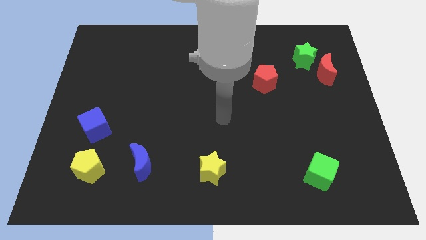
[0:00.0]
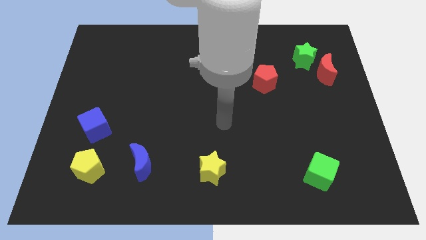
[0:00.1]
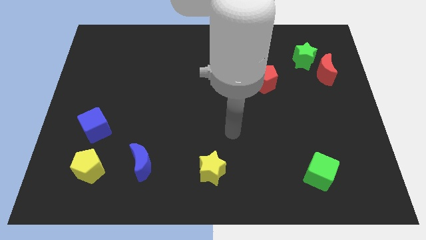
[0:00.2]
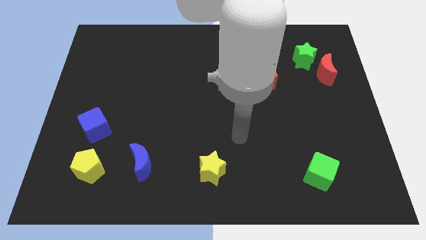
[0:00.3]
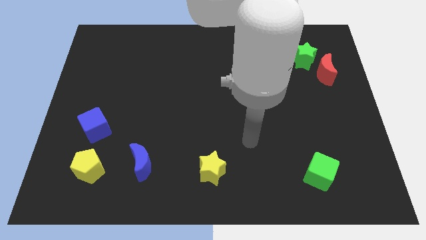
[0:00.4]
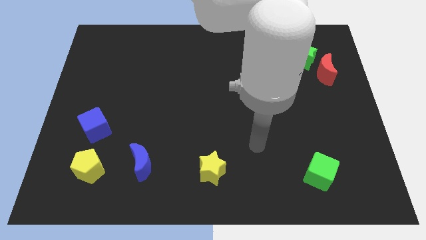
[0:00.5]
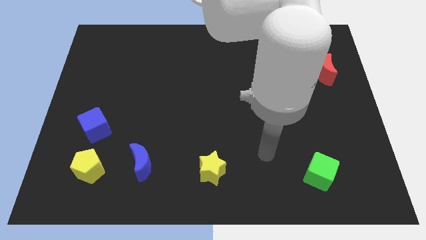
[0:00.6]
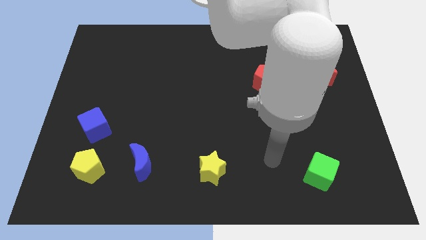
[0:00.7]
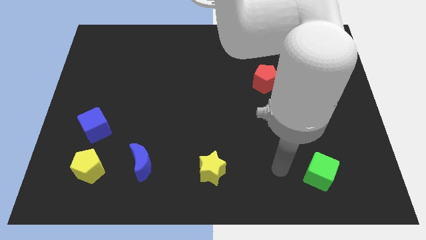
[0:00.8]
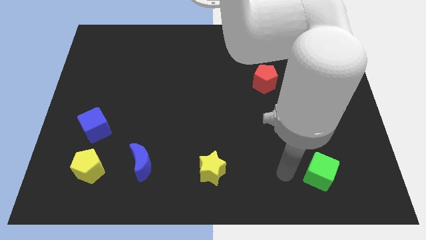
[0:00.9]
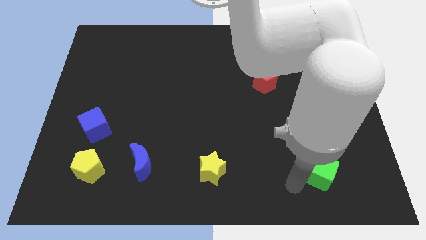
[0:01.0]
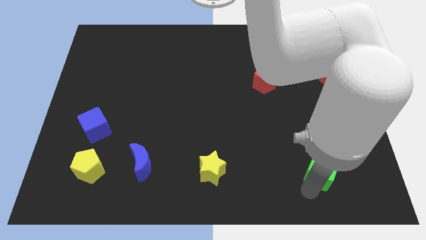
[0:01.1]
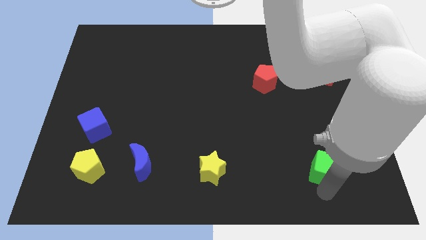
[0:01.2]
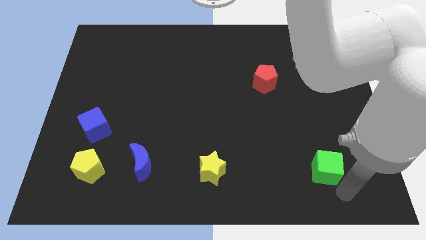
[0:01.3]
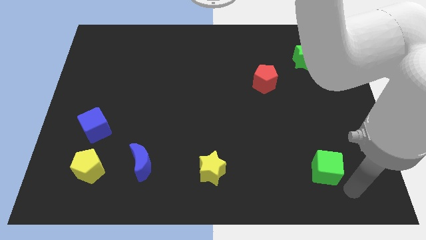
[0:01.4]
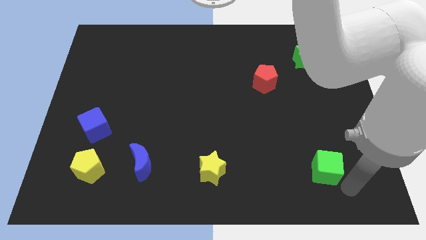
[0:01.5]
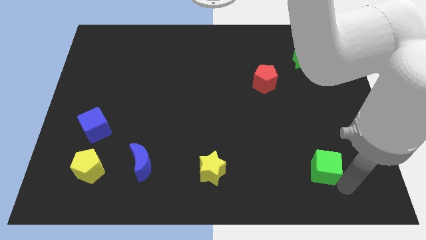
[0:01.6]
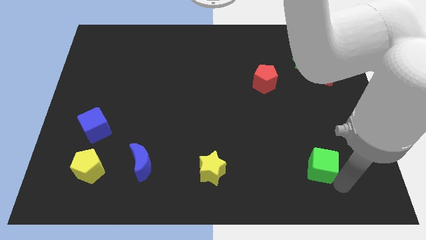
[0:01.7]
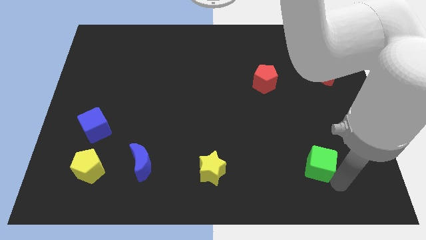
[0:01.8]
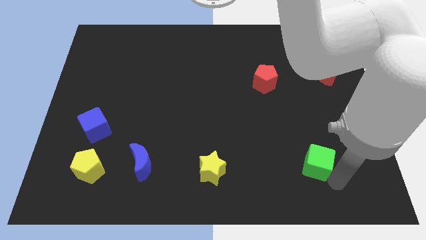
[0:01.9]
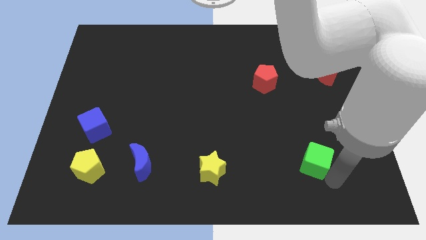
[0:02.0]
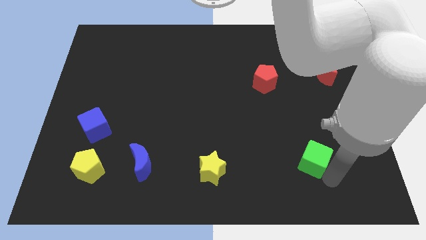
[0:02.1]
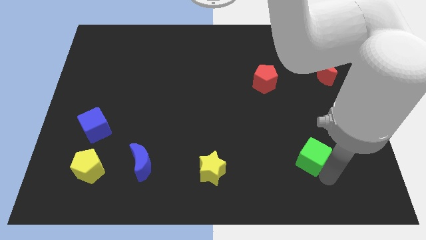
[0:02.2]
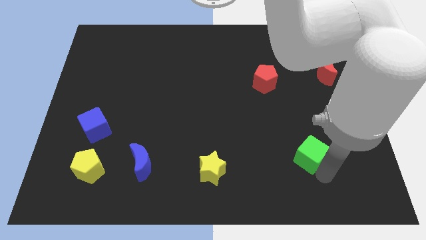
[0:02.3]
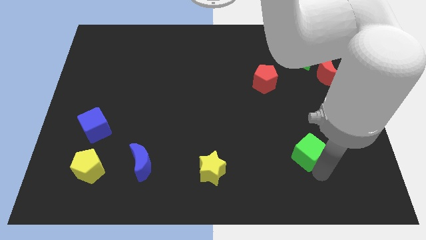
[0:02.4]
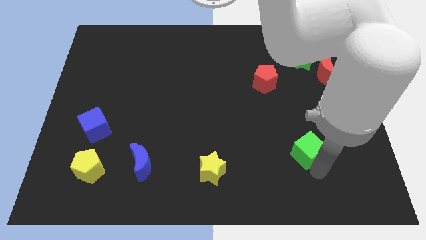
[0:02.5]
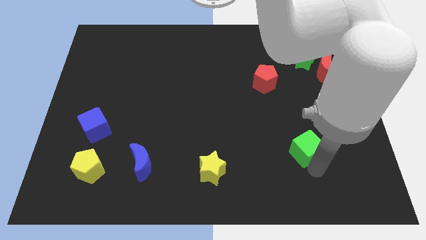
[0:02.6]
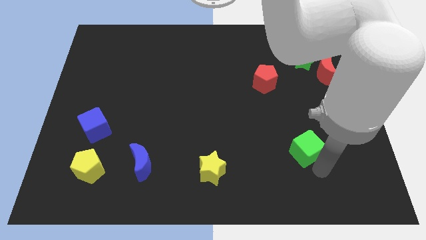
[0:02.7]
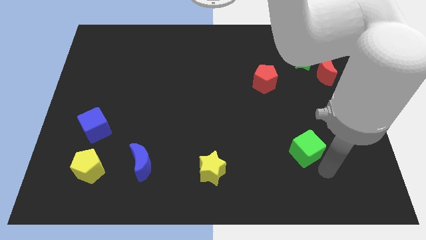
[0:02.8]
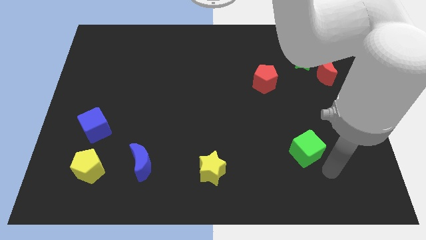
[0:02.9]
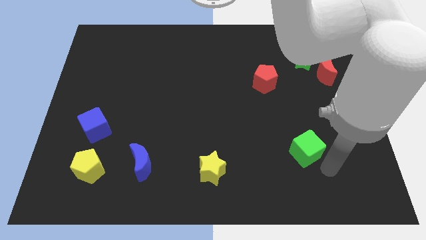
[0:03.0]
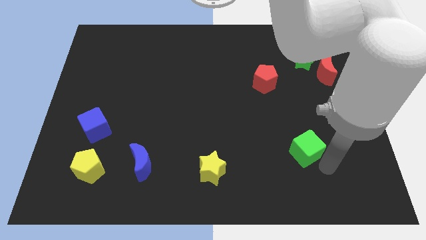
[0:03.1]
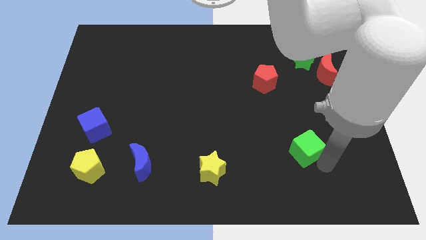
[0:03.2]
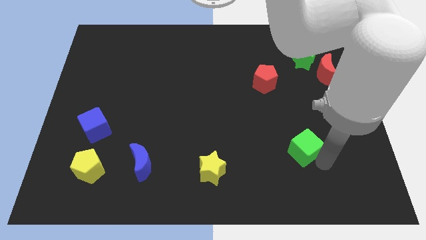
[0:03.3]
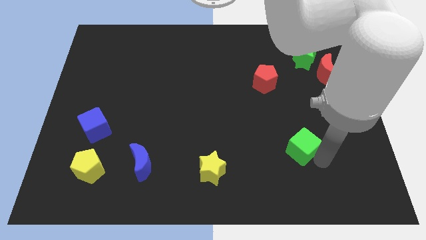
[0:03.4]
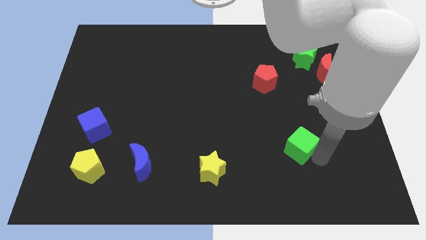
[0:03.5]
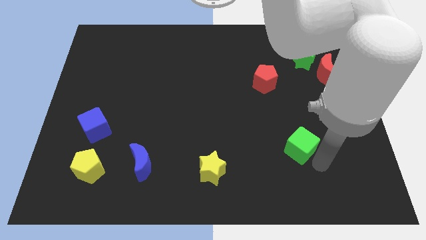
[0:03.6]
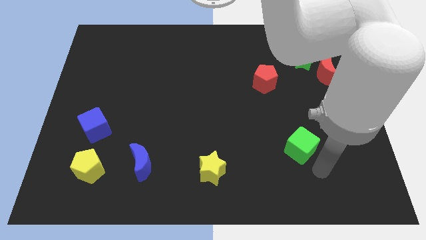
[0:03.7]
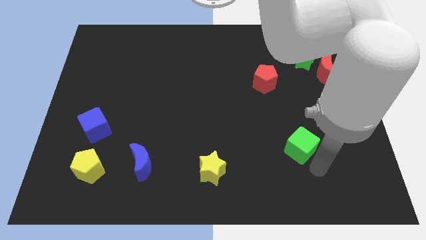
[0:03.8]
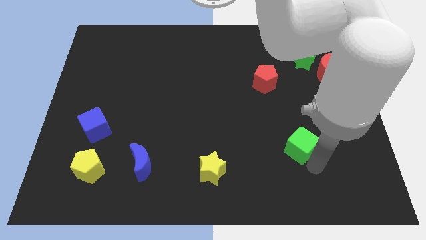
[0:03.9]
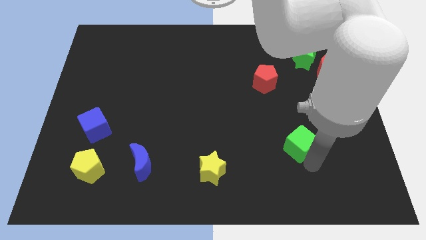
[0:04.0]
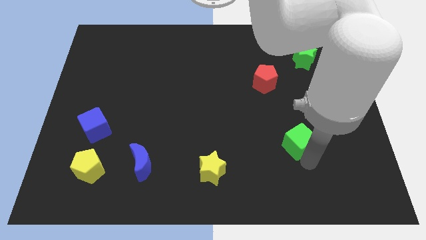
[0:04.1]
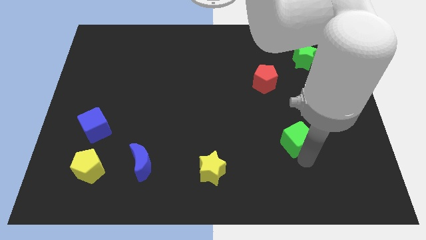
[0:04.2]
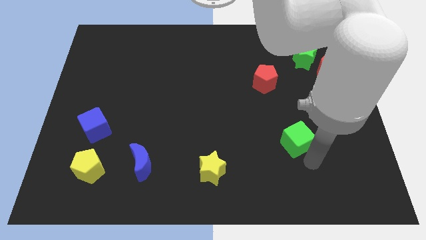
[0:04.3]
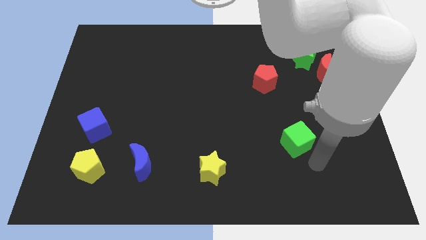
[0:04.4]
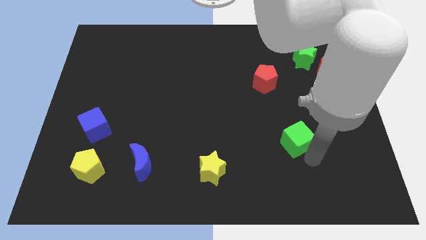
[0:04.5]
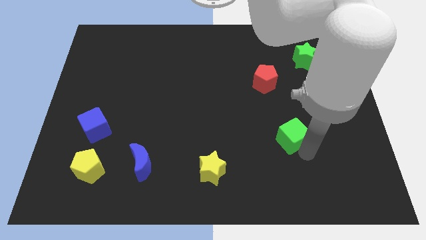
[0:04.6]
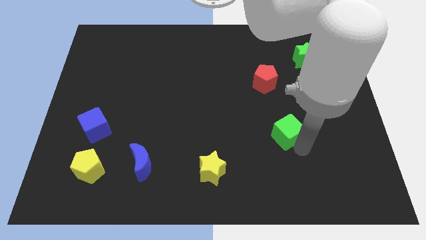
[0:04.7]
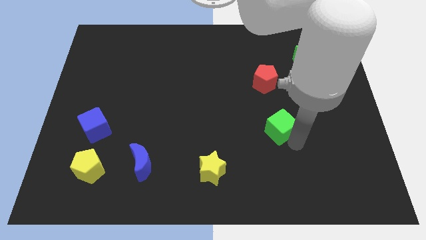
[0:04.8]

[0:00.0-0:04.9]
push the green cube below the red pentagon

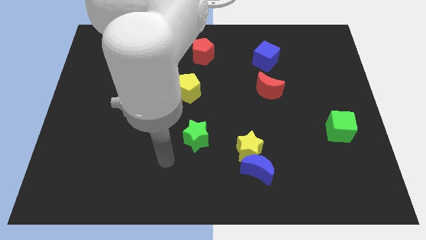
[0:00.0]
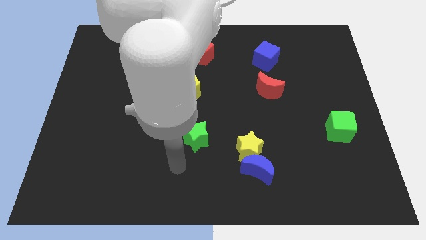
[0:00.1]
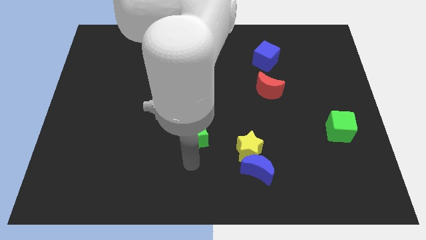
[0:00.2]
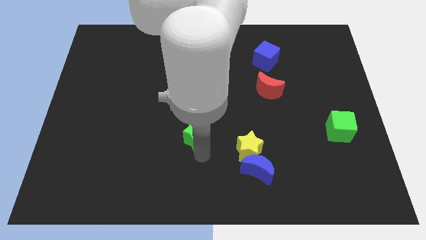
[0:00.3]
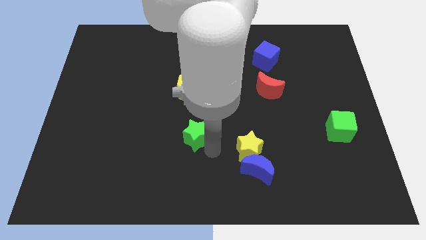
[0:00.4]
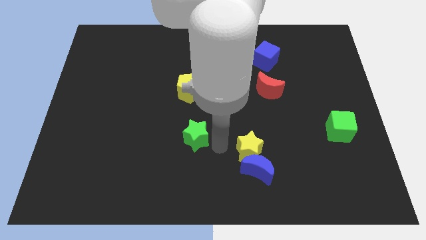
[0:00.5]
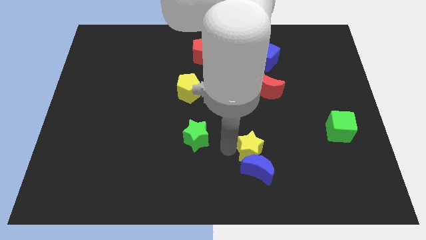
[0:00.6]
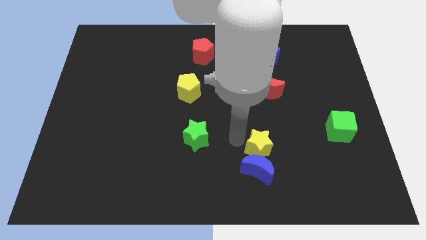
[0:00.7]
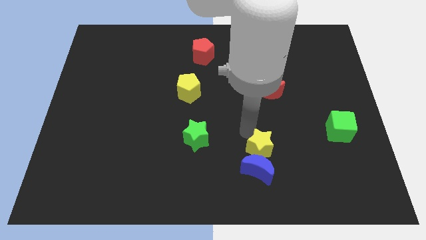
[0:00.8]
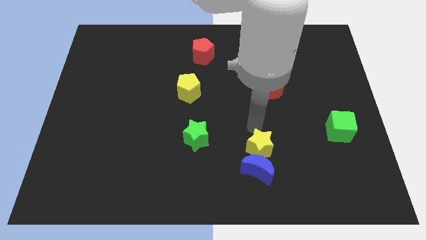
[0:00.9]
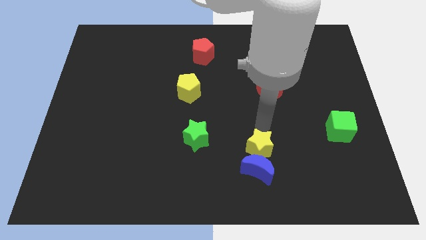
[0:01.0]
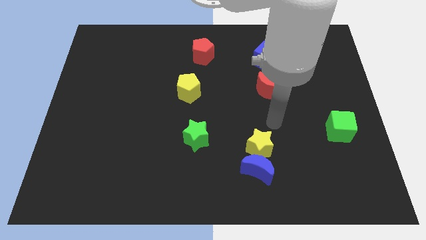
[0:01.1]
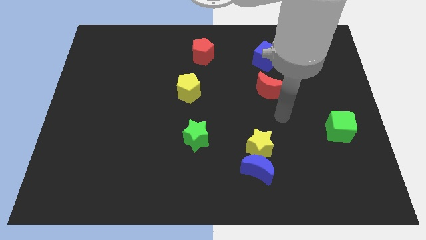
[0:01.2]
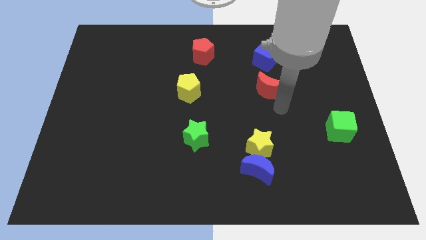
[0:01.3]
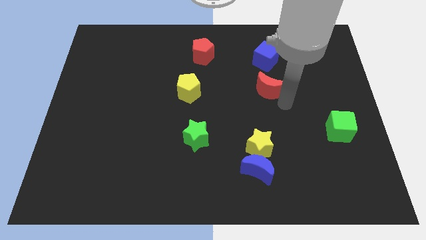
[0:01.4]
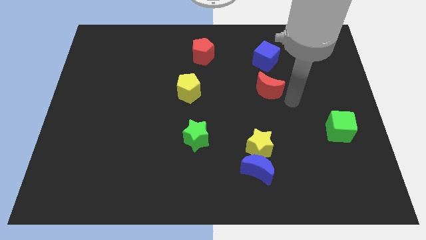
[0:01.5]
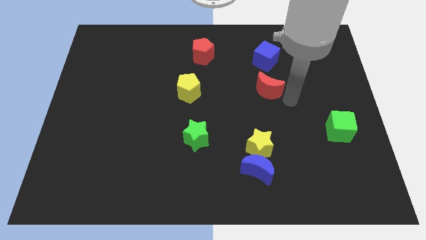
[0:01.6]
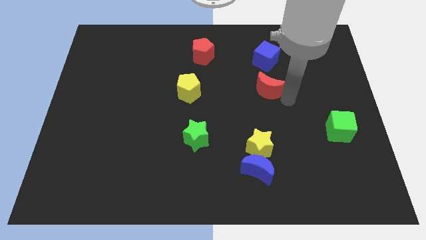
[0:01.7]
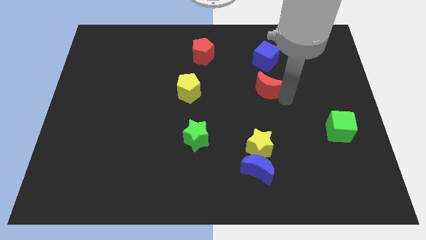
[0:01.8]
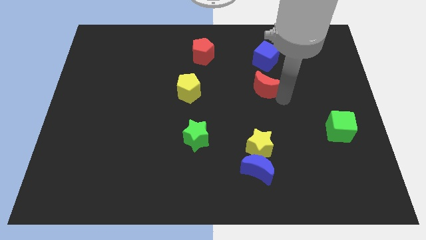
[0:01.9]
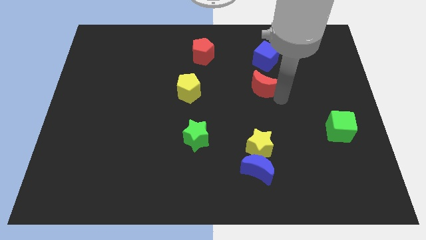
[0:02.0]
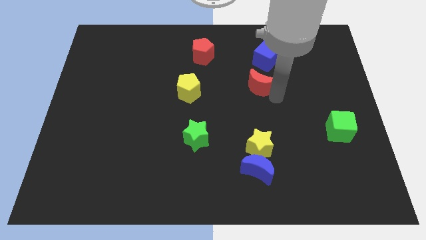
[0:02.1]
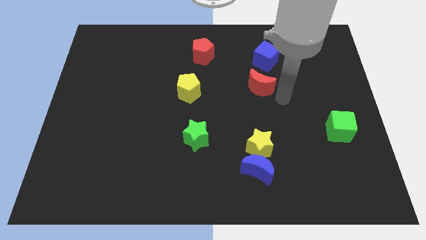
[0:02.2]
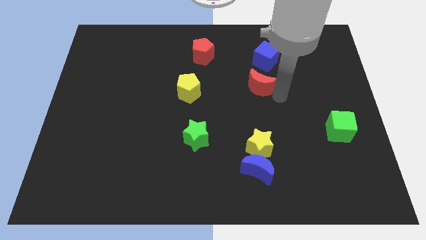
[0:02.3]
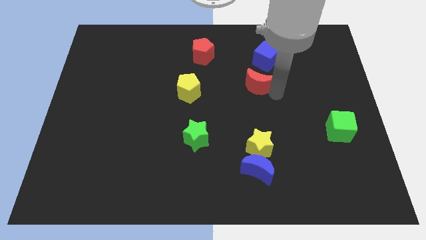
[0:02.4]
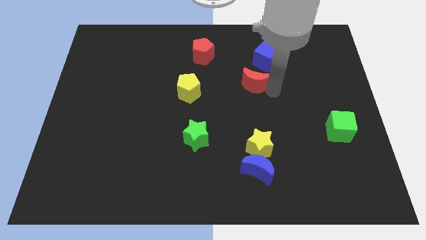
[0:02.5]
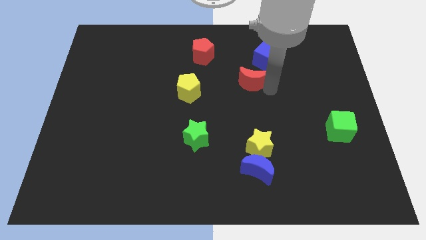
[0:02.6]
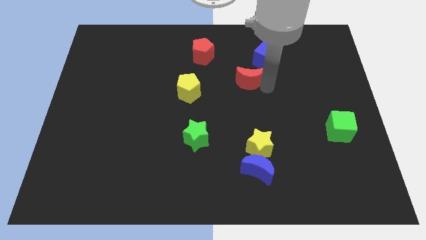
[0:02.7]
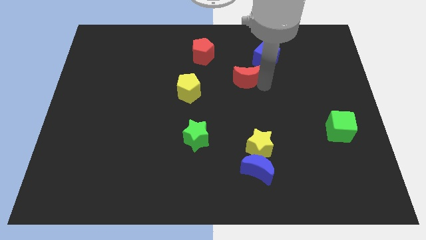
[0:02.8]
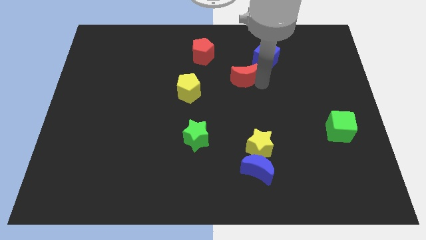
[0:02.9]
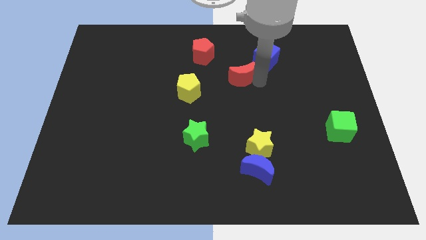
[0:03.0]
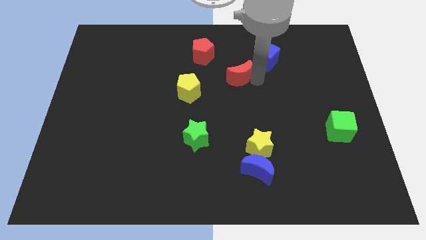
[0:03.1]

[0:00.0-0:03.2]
push the red moon to the bottom right side of the red pentagon
